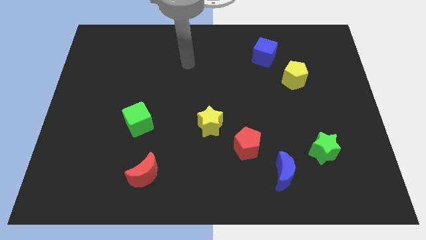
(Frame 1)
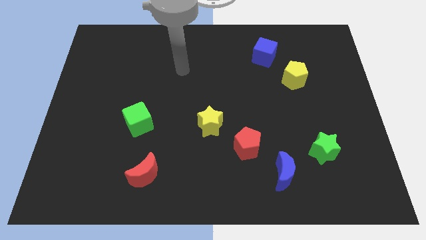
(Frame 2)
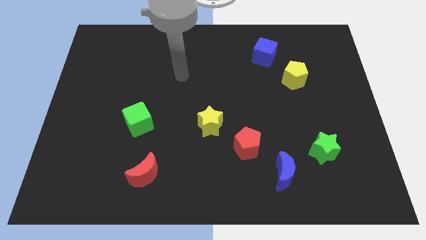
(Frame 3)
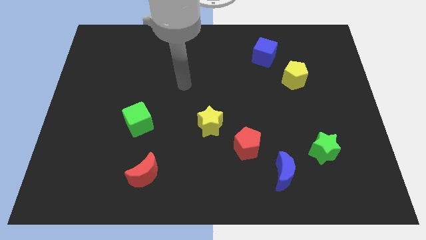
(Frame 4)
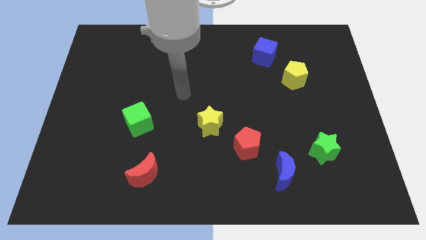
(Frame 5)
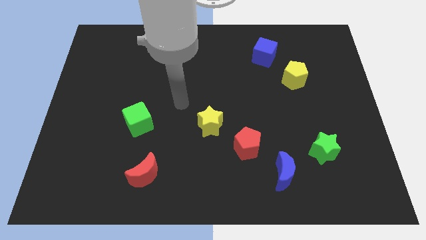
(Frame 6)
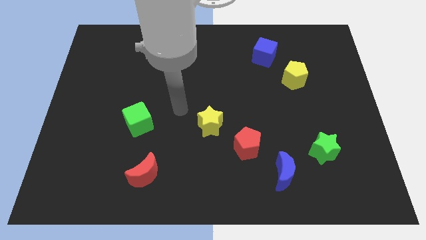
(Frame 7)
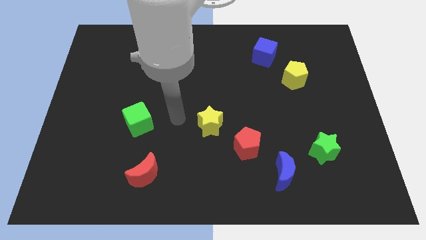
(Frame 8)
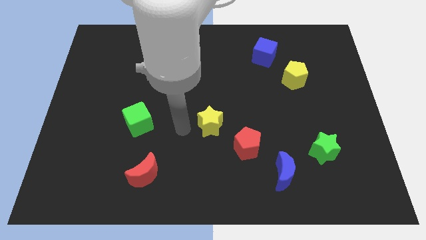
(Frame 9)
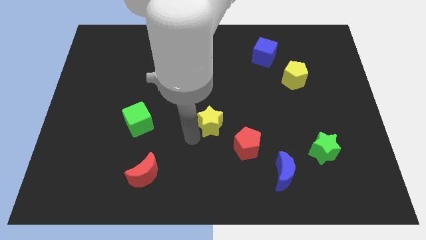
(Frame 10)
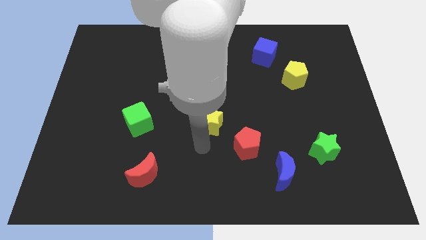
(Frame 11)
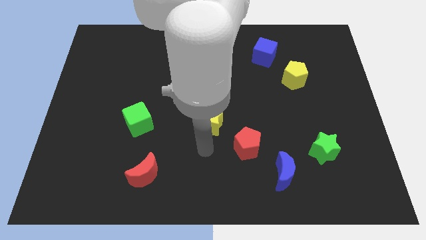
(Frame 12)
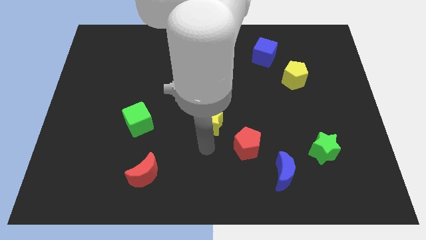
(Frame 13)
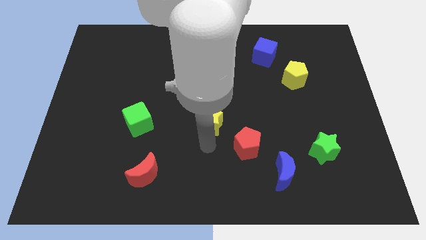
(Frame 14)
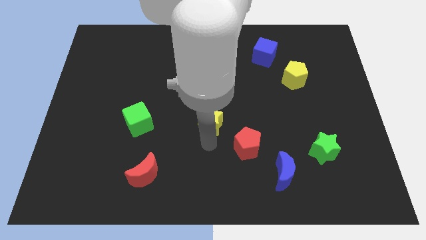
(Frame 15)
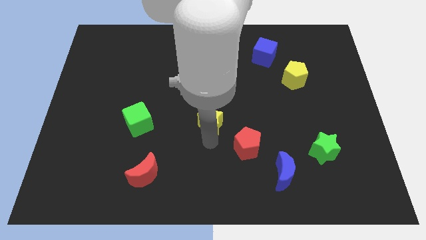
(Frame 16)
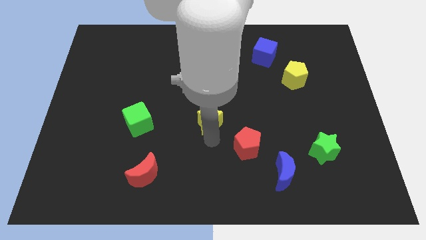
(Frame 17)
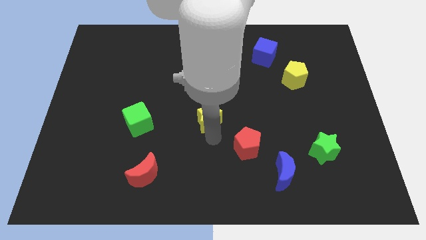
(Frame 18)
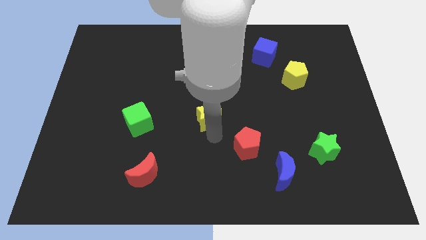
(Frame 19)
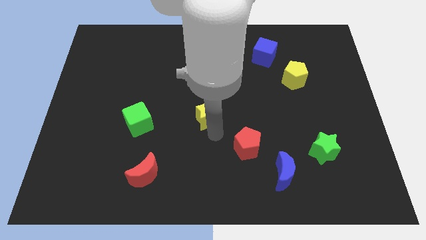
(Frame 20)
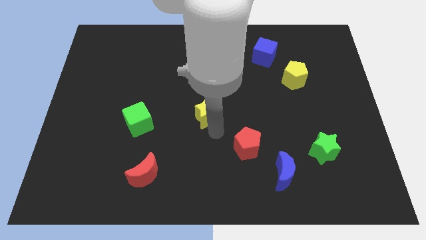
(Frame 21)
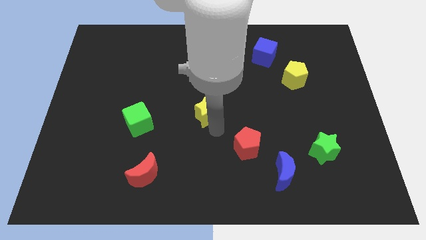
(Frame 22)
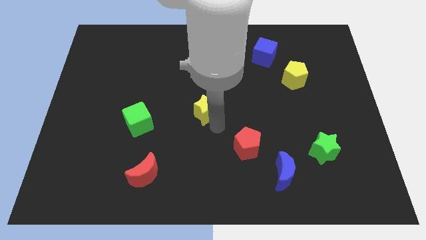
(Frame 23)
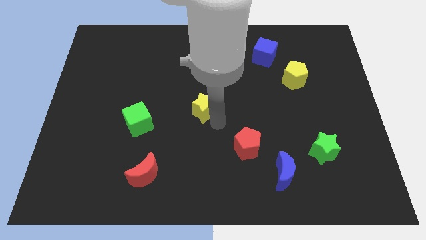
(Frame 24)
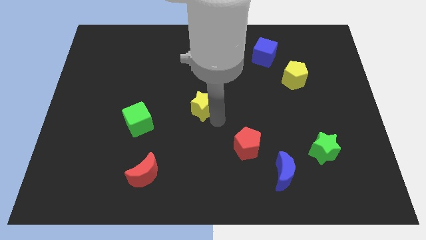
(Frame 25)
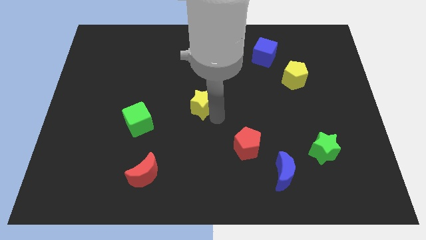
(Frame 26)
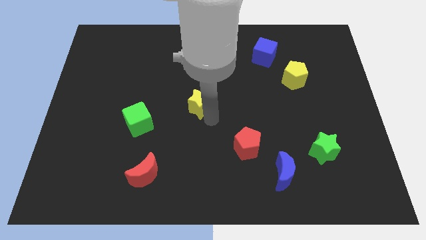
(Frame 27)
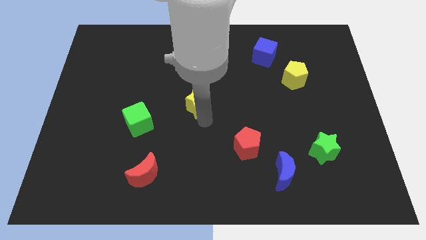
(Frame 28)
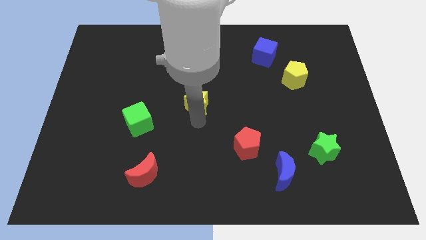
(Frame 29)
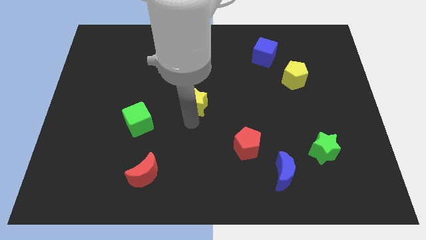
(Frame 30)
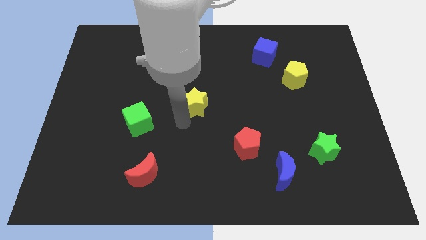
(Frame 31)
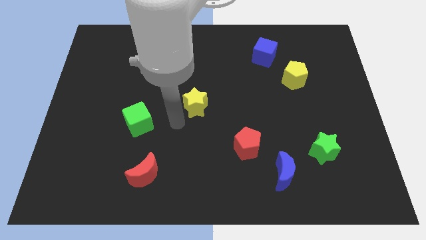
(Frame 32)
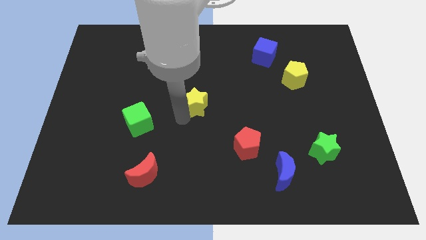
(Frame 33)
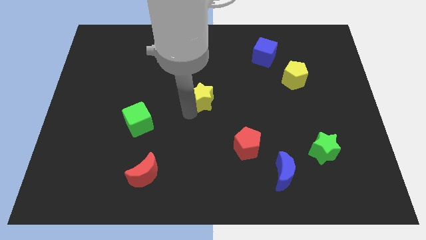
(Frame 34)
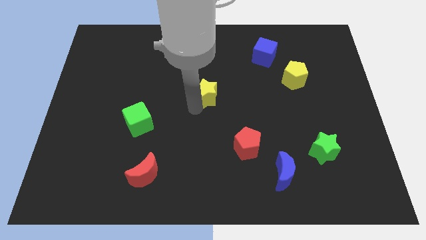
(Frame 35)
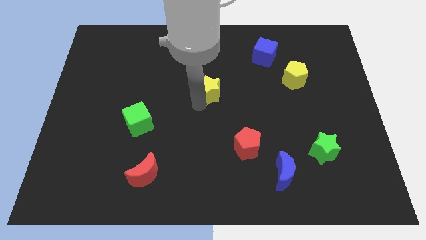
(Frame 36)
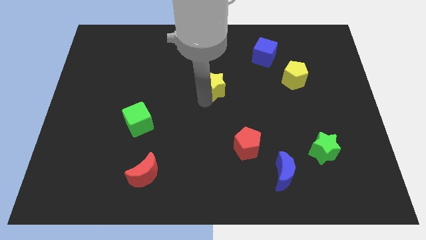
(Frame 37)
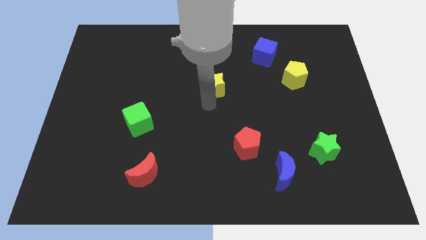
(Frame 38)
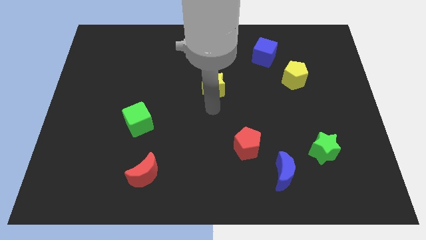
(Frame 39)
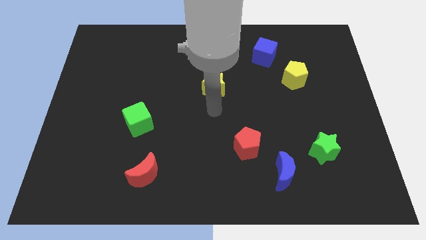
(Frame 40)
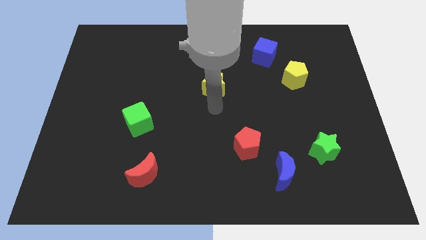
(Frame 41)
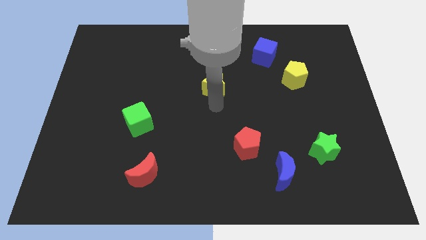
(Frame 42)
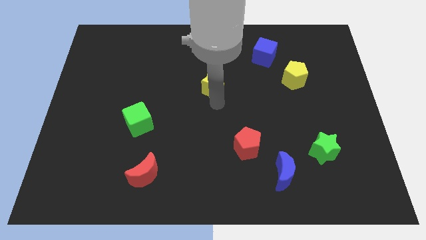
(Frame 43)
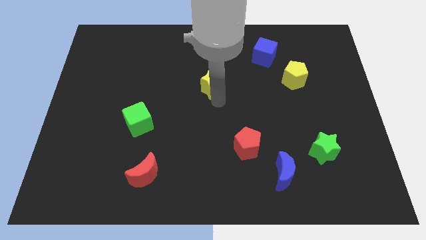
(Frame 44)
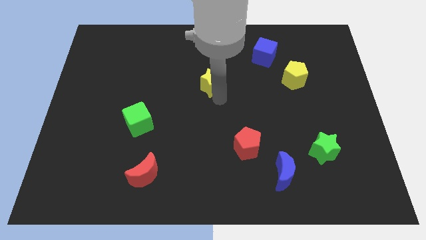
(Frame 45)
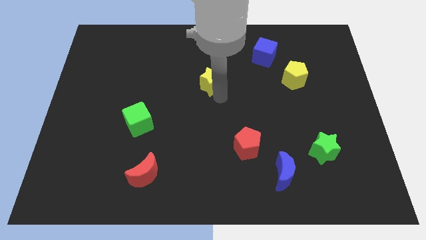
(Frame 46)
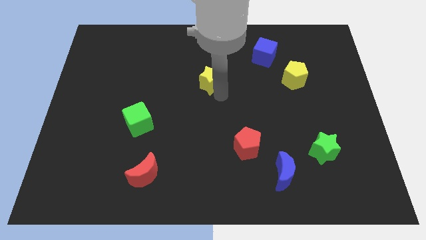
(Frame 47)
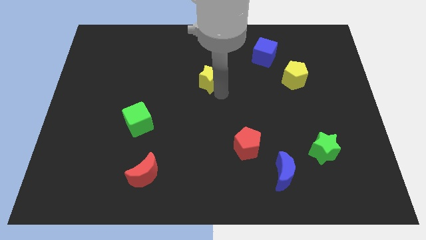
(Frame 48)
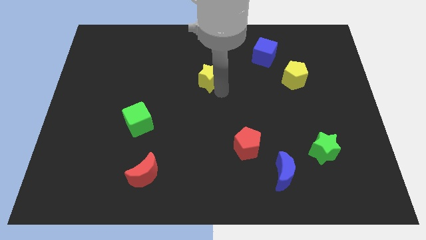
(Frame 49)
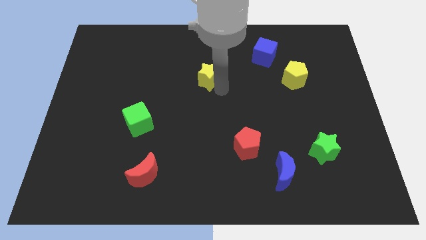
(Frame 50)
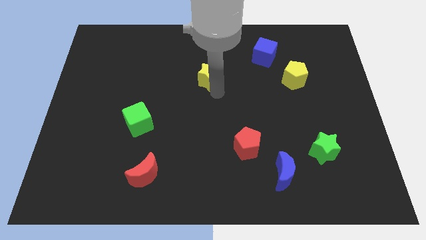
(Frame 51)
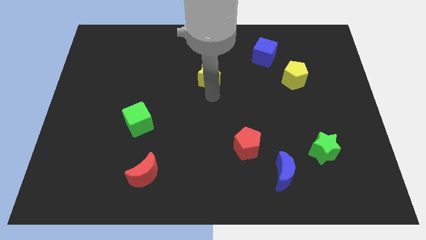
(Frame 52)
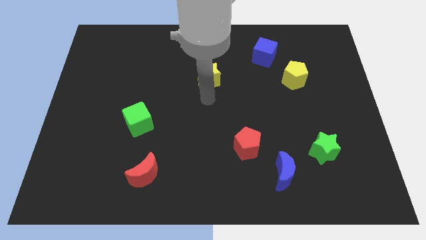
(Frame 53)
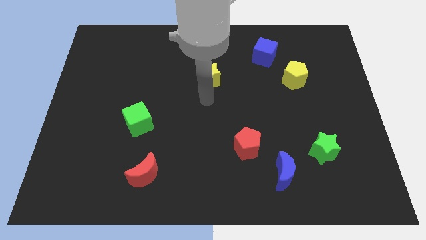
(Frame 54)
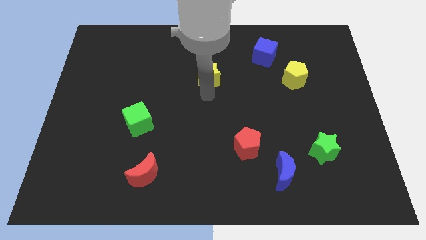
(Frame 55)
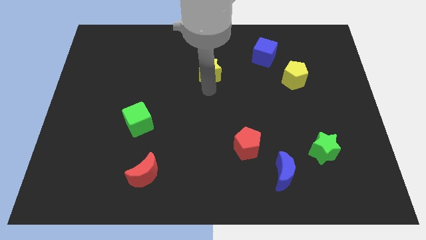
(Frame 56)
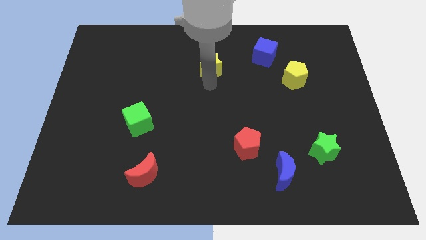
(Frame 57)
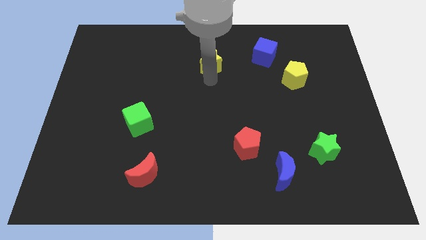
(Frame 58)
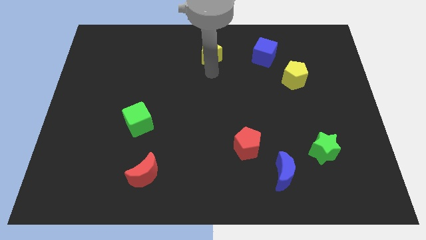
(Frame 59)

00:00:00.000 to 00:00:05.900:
slide the yellow star to the top side
